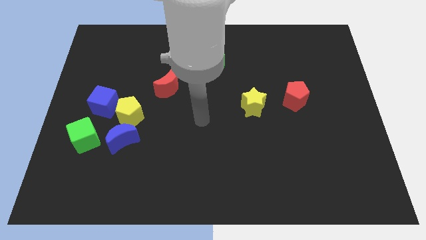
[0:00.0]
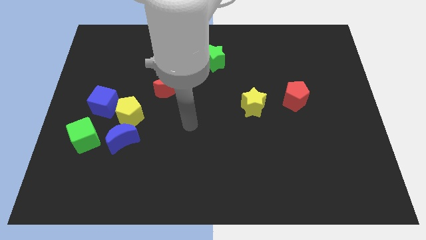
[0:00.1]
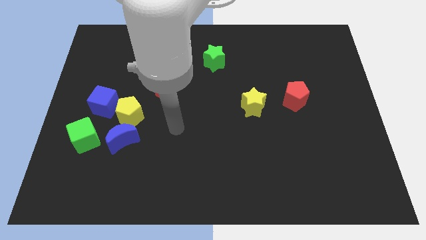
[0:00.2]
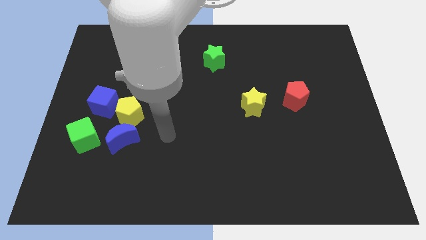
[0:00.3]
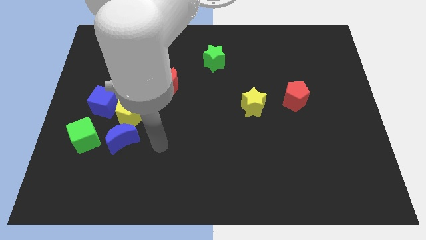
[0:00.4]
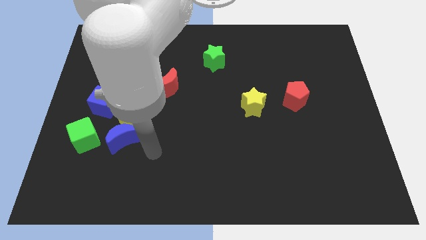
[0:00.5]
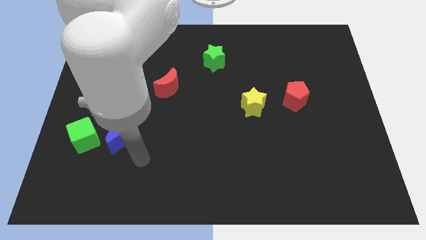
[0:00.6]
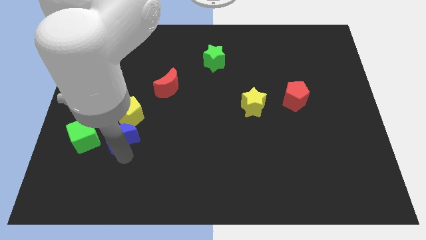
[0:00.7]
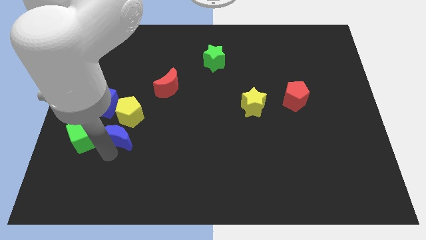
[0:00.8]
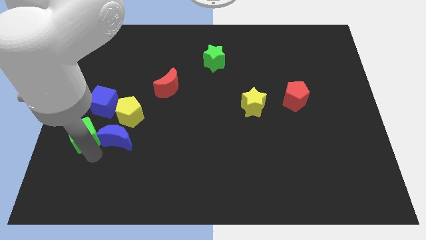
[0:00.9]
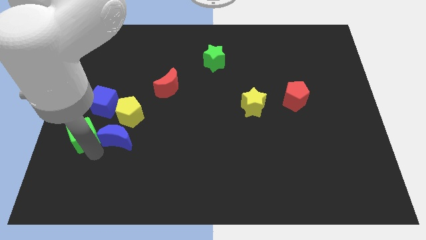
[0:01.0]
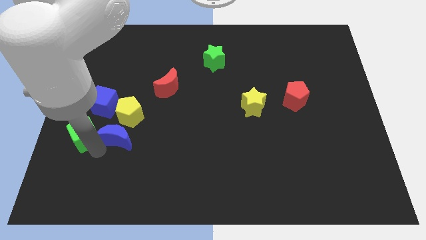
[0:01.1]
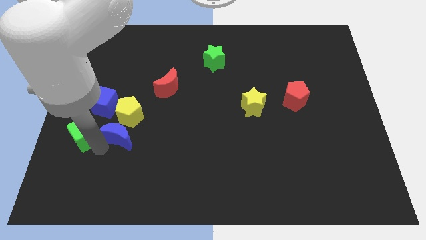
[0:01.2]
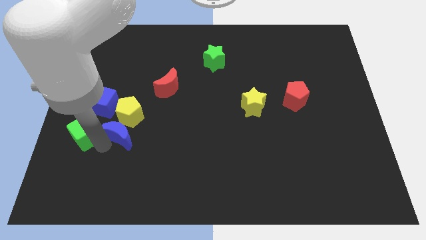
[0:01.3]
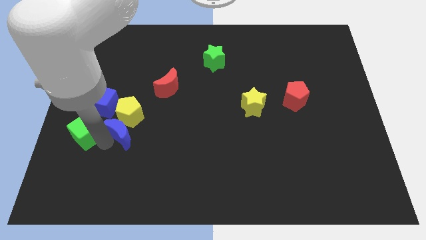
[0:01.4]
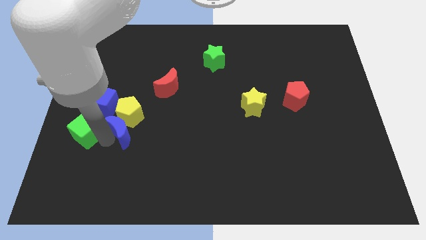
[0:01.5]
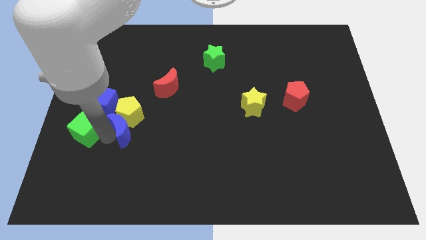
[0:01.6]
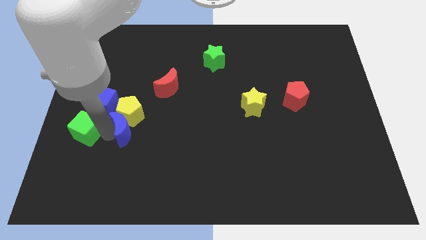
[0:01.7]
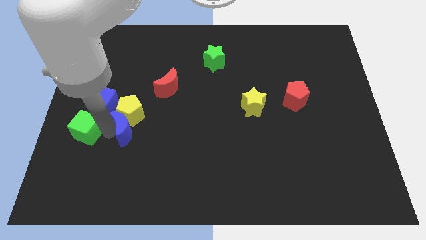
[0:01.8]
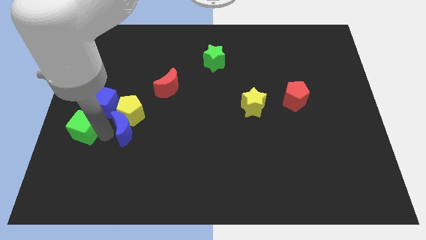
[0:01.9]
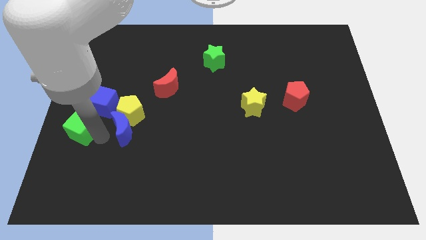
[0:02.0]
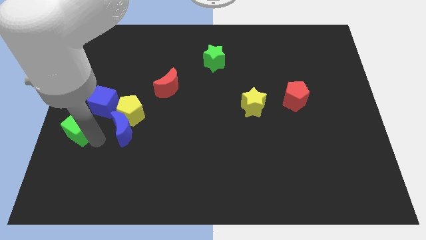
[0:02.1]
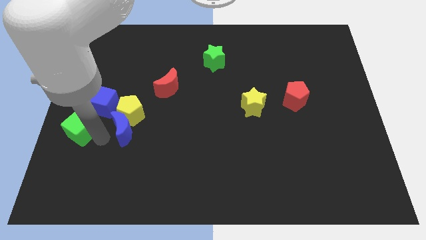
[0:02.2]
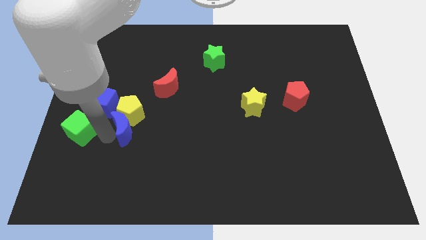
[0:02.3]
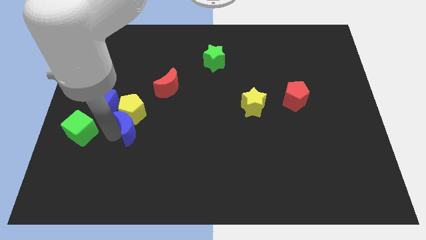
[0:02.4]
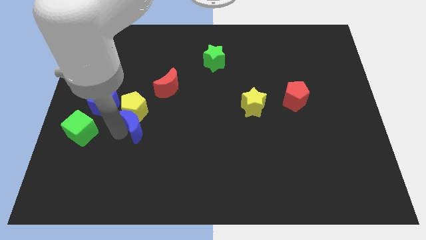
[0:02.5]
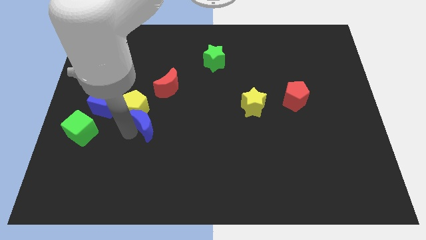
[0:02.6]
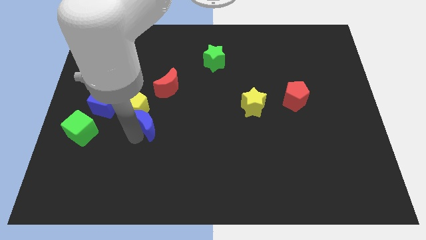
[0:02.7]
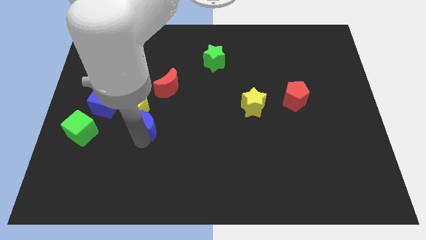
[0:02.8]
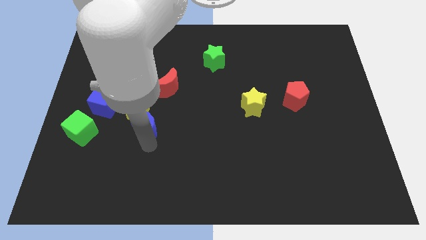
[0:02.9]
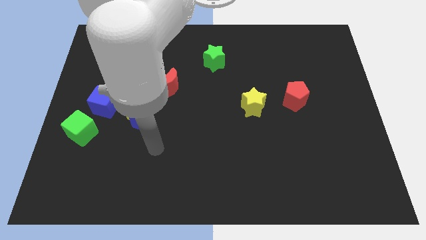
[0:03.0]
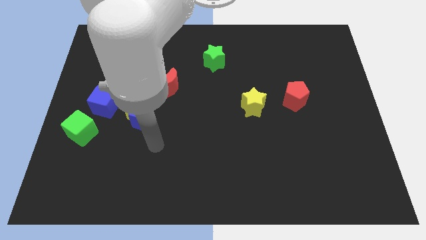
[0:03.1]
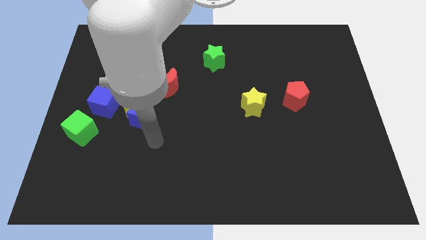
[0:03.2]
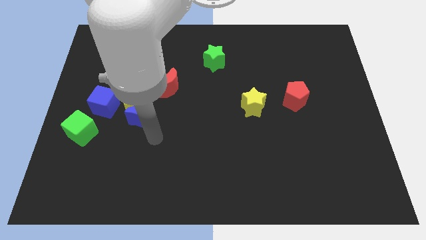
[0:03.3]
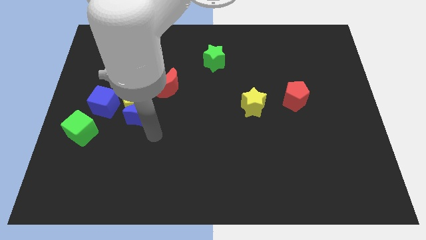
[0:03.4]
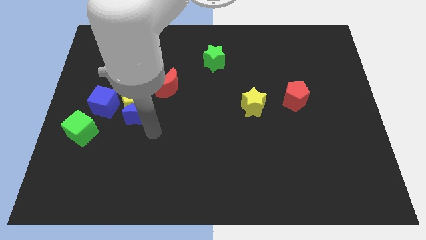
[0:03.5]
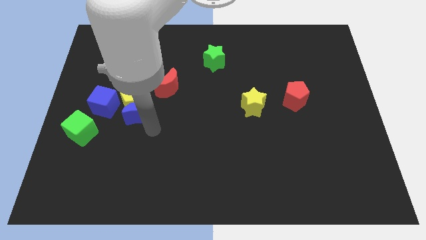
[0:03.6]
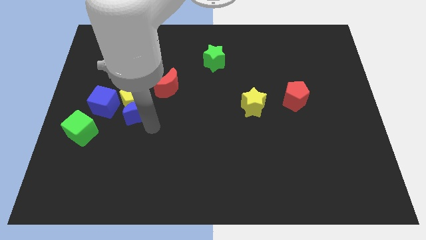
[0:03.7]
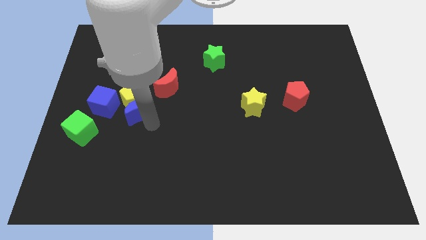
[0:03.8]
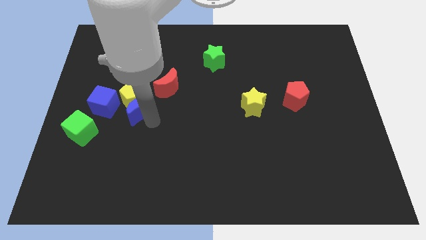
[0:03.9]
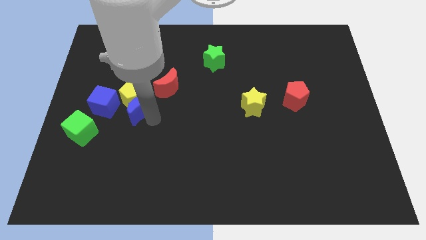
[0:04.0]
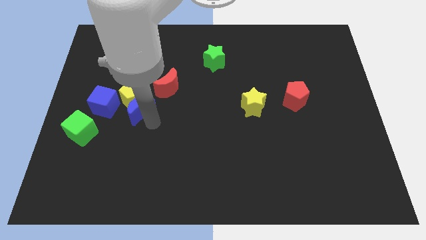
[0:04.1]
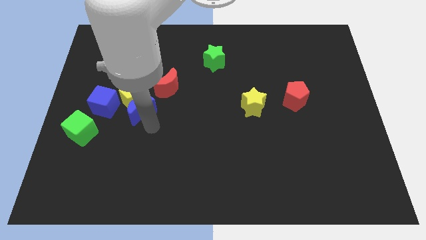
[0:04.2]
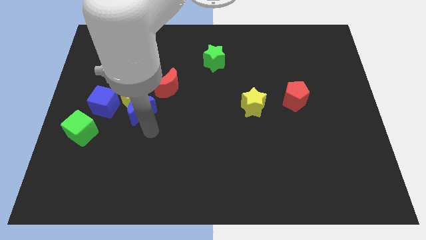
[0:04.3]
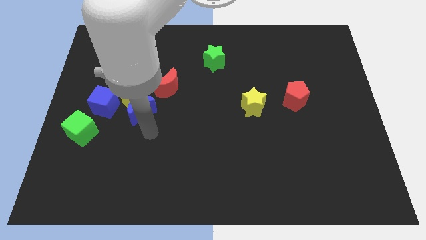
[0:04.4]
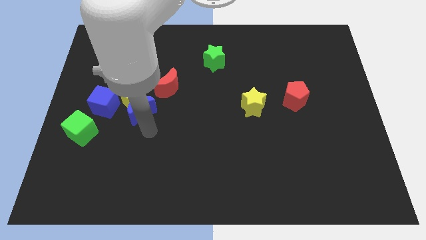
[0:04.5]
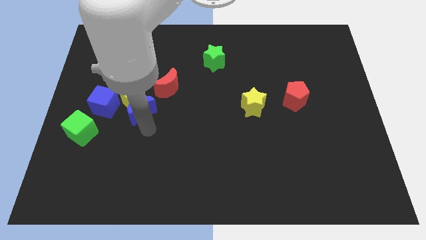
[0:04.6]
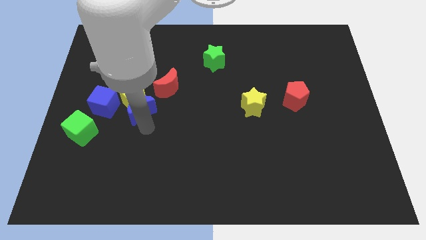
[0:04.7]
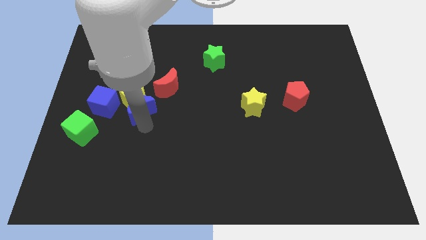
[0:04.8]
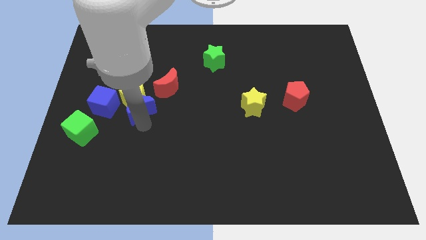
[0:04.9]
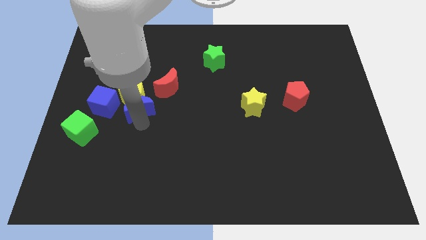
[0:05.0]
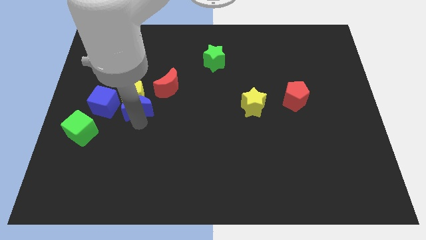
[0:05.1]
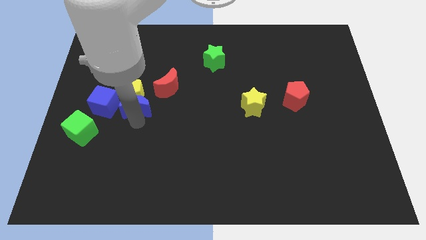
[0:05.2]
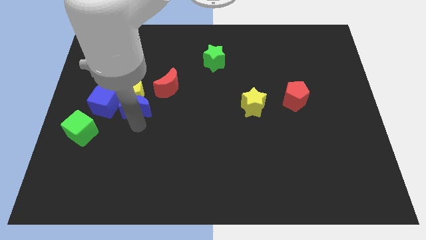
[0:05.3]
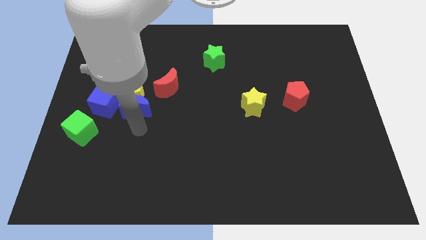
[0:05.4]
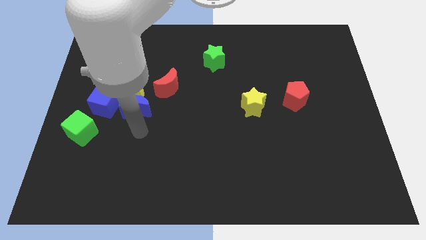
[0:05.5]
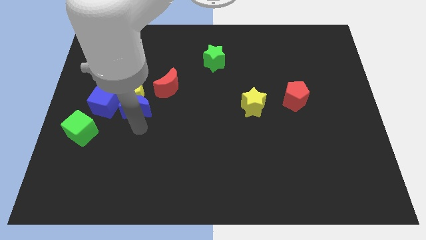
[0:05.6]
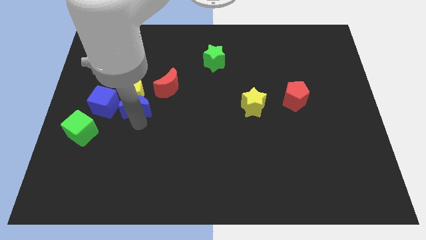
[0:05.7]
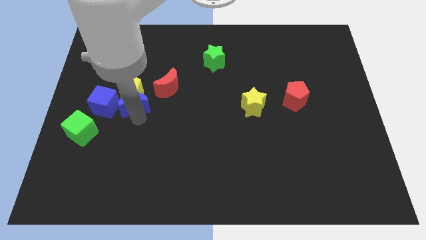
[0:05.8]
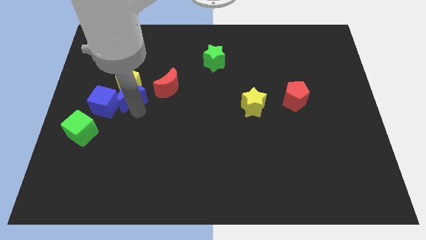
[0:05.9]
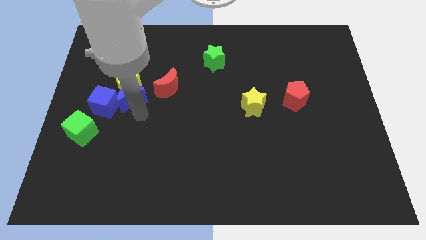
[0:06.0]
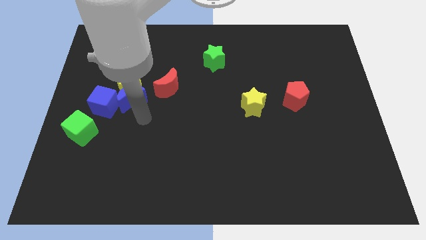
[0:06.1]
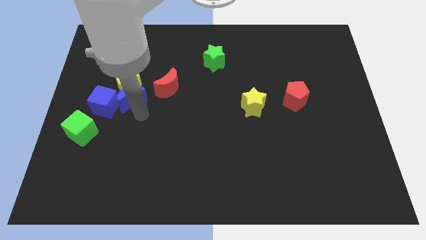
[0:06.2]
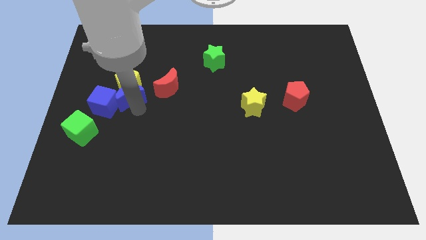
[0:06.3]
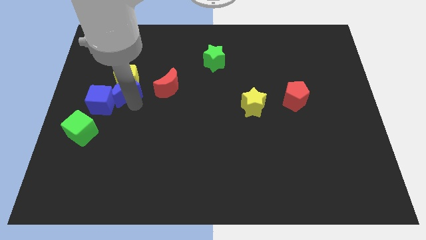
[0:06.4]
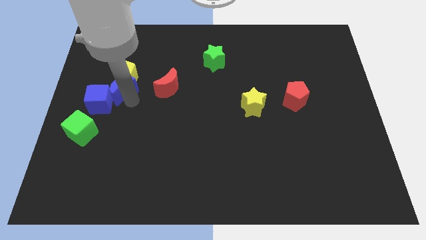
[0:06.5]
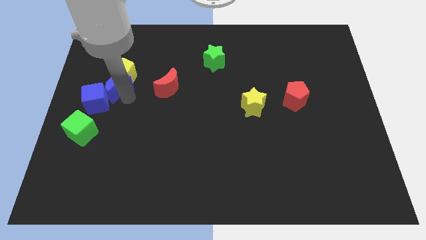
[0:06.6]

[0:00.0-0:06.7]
push the blue moon to the top of the blue cube

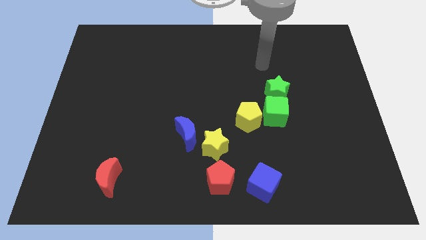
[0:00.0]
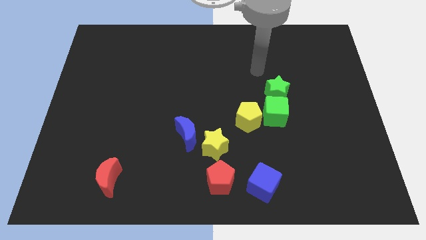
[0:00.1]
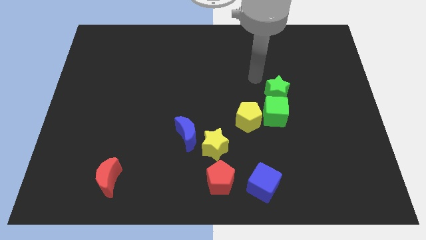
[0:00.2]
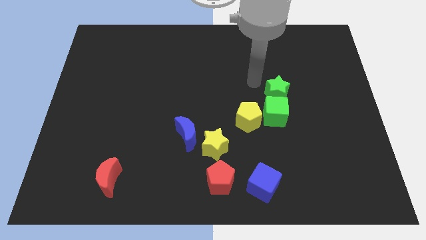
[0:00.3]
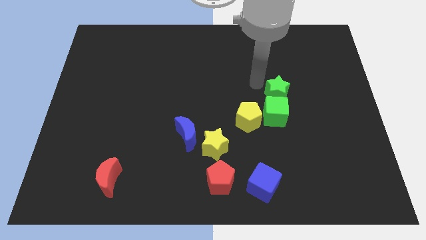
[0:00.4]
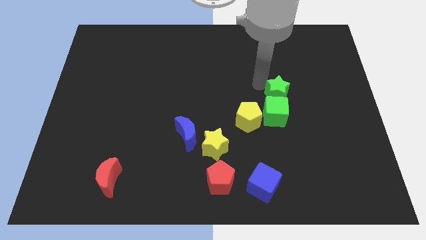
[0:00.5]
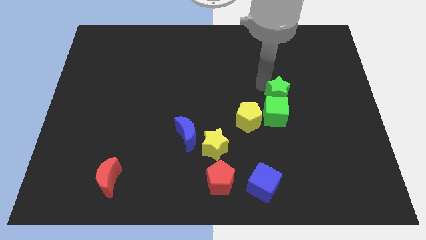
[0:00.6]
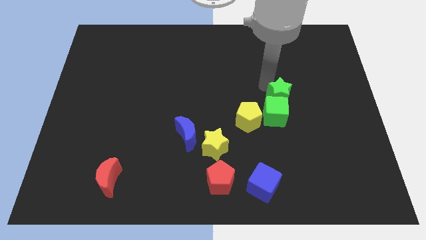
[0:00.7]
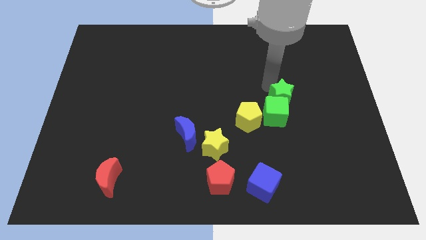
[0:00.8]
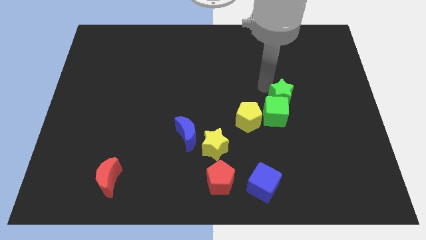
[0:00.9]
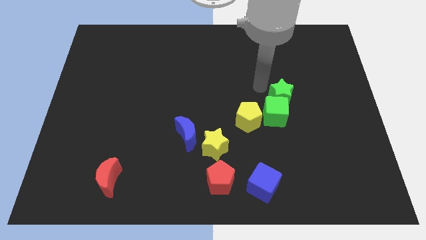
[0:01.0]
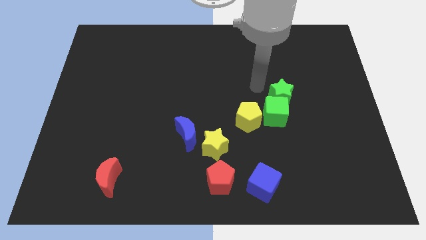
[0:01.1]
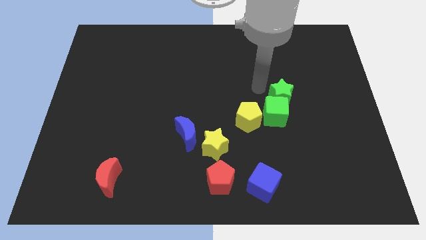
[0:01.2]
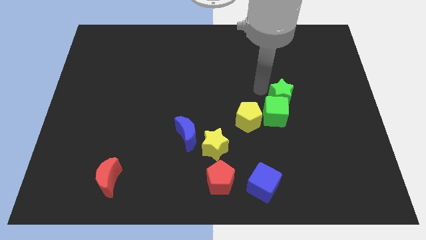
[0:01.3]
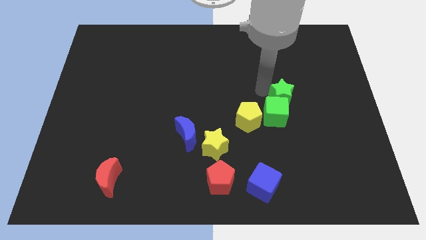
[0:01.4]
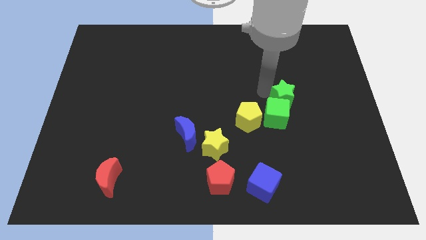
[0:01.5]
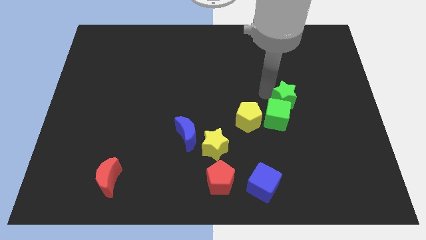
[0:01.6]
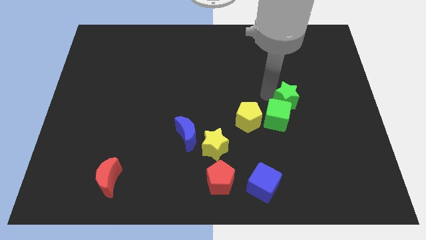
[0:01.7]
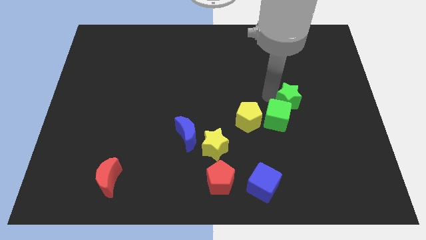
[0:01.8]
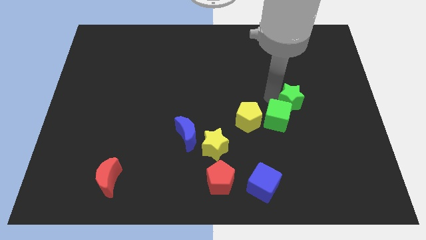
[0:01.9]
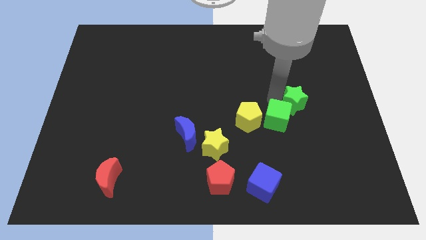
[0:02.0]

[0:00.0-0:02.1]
move the green star to the right side of the green cube
